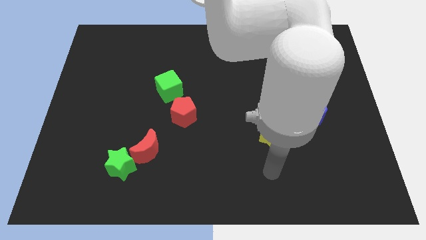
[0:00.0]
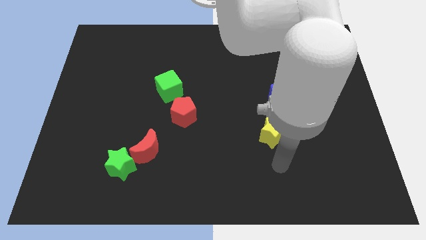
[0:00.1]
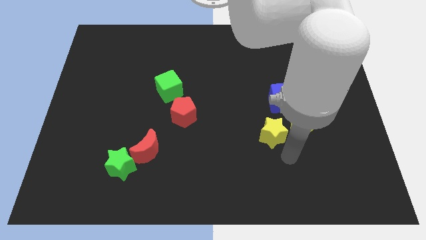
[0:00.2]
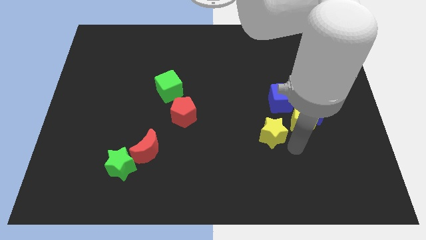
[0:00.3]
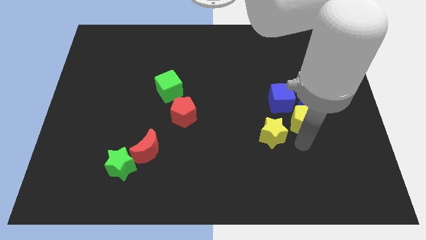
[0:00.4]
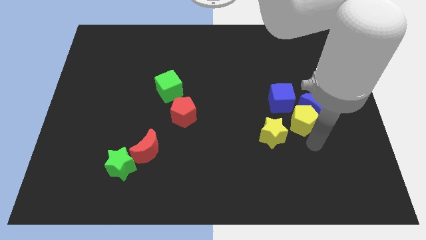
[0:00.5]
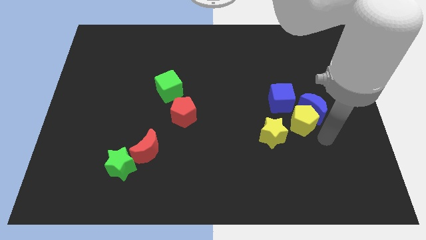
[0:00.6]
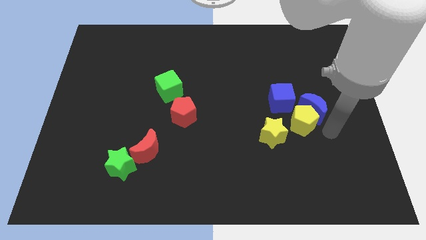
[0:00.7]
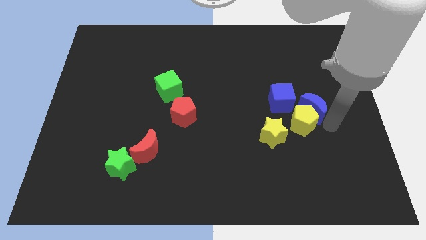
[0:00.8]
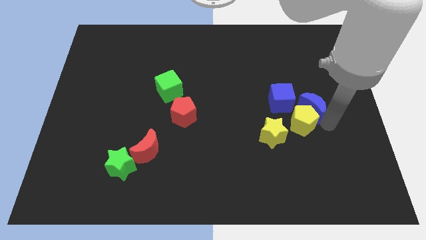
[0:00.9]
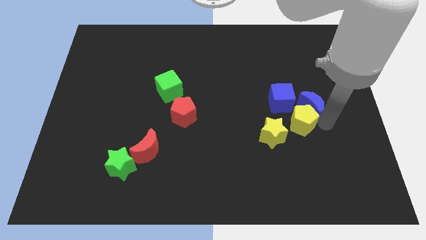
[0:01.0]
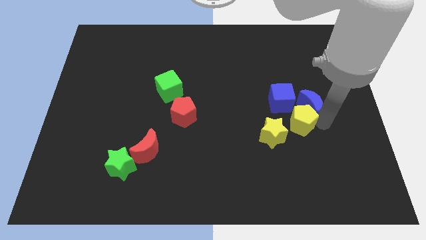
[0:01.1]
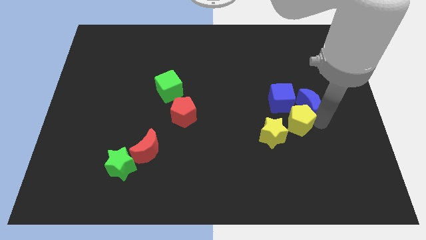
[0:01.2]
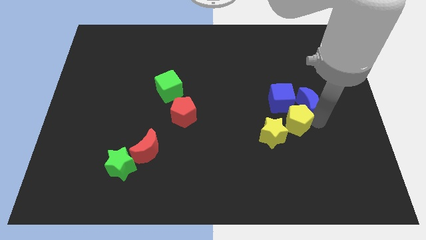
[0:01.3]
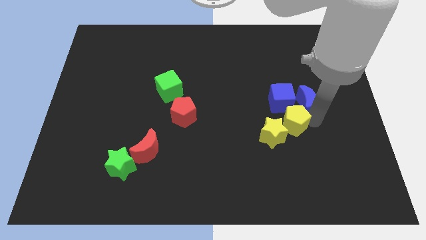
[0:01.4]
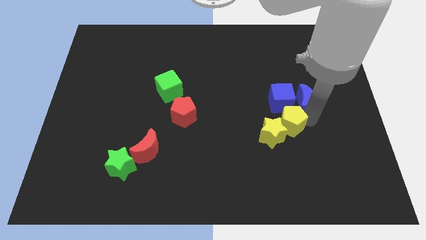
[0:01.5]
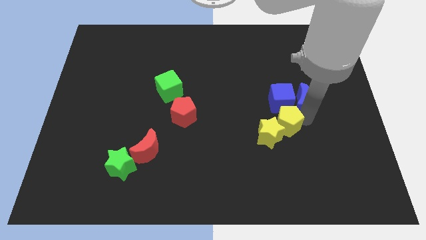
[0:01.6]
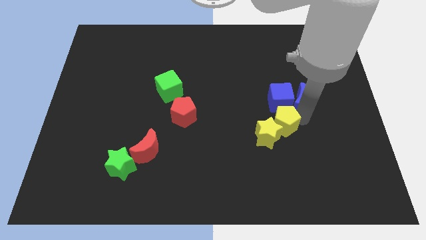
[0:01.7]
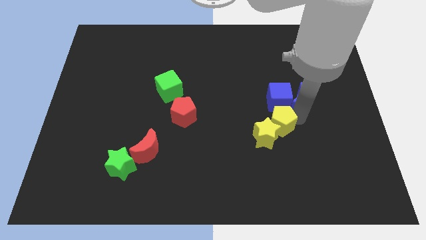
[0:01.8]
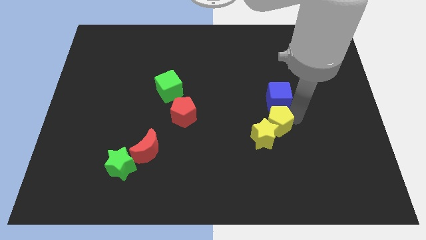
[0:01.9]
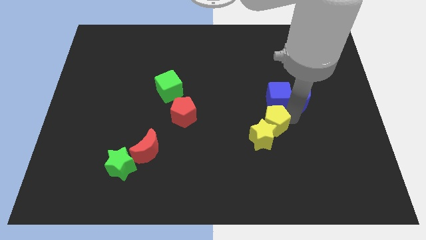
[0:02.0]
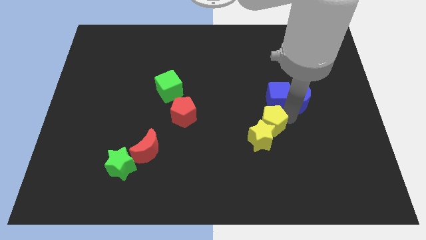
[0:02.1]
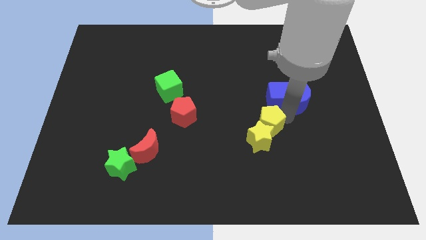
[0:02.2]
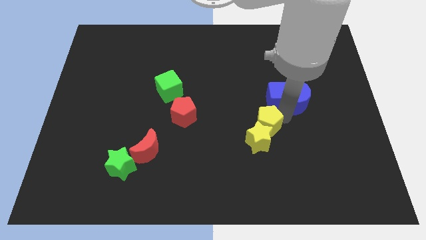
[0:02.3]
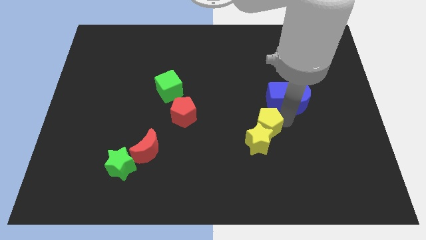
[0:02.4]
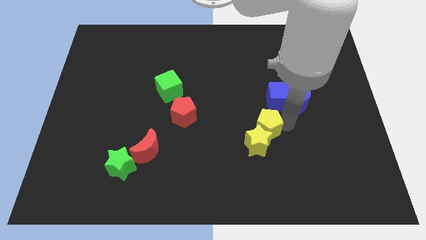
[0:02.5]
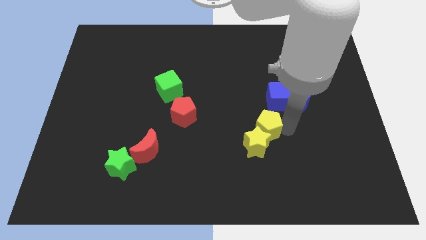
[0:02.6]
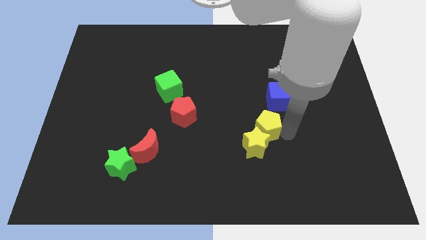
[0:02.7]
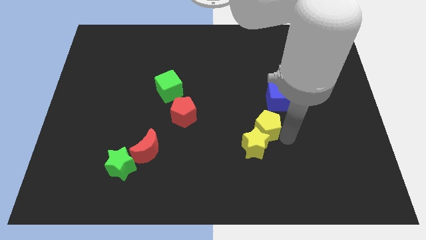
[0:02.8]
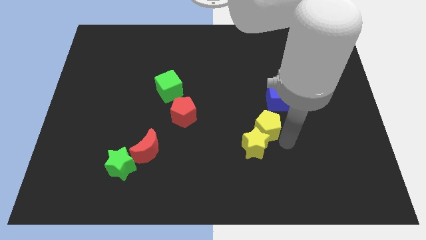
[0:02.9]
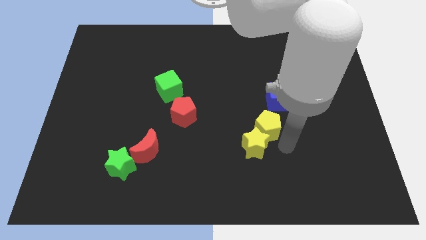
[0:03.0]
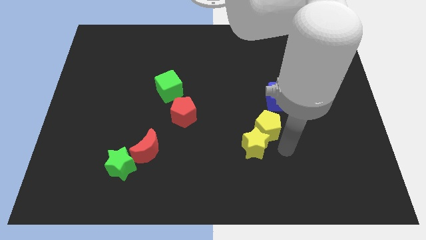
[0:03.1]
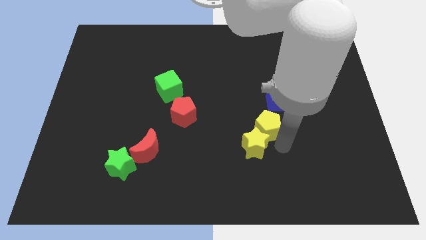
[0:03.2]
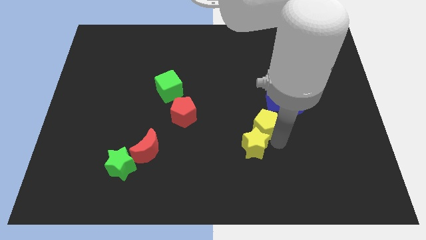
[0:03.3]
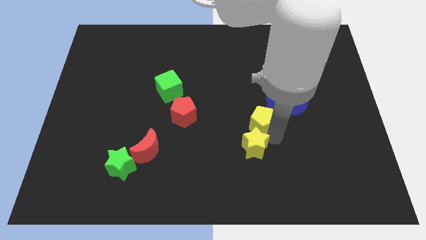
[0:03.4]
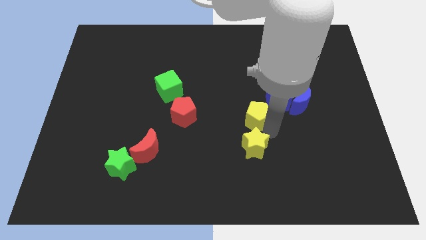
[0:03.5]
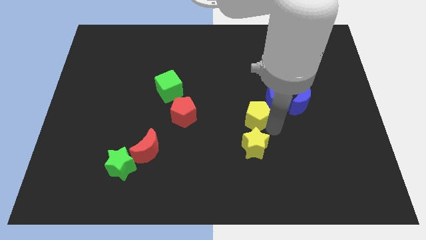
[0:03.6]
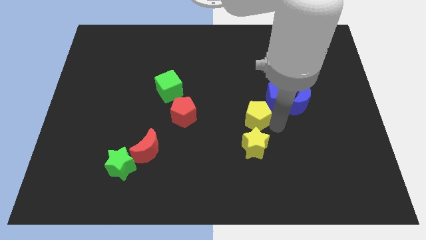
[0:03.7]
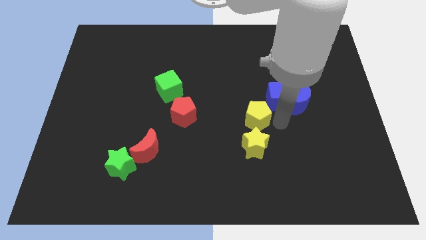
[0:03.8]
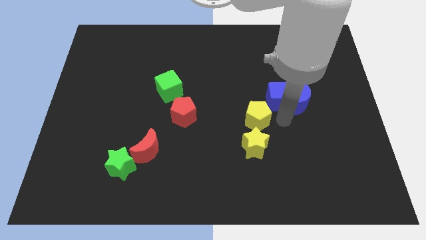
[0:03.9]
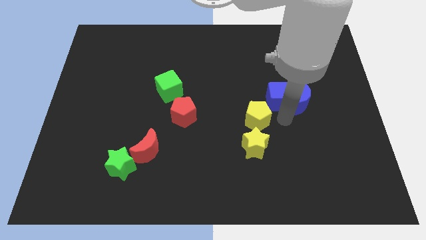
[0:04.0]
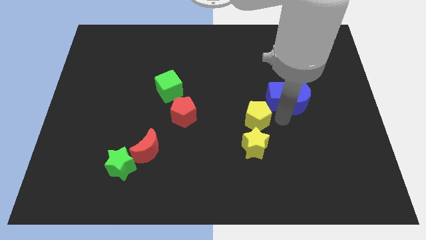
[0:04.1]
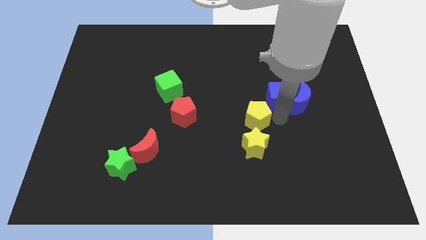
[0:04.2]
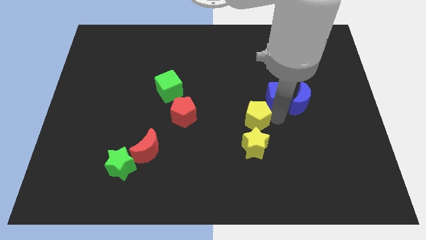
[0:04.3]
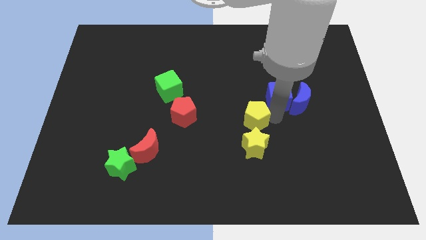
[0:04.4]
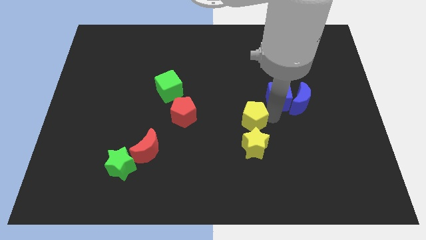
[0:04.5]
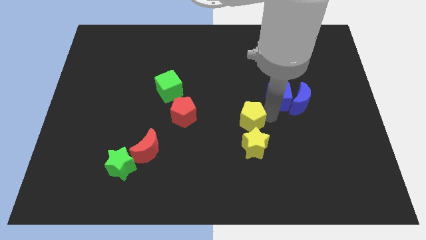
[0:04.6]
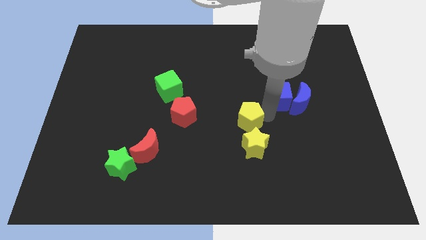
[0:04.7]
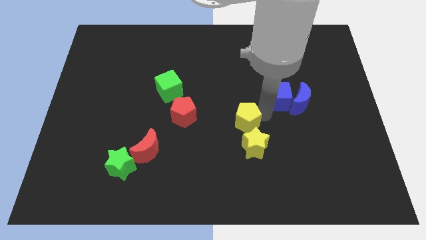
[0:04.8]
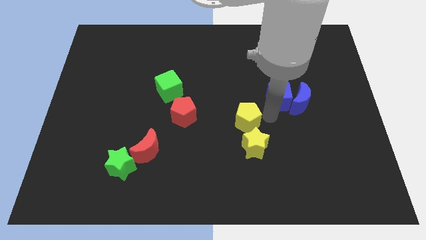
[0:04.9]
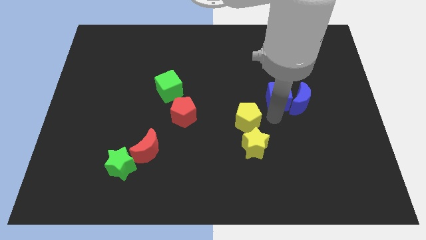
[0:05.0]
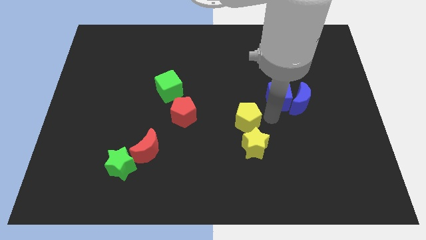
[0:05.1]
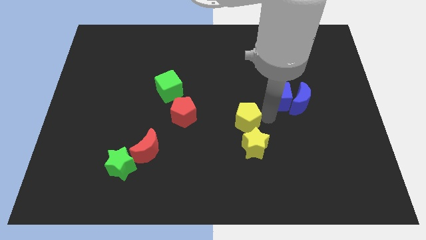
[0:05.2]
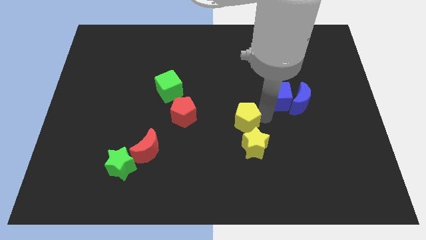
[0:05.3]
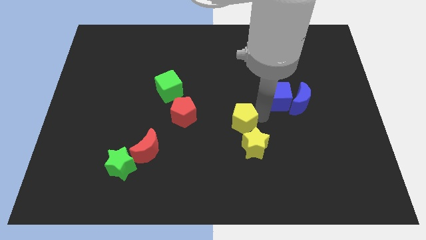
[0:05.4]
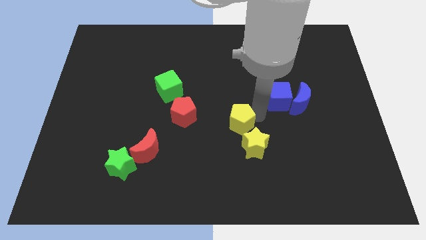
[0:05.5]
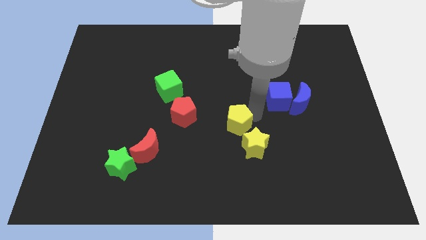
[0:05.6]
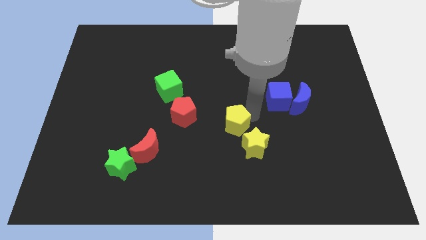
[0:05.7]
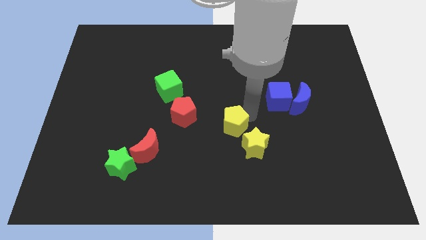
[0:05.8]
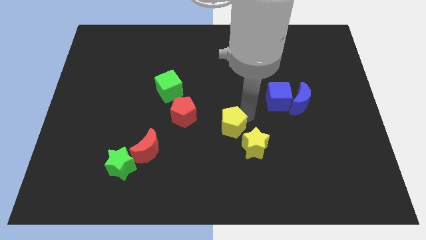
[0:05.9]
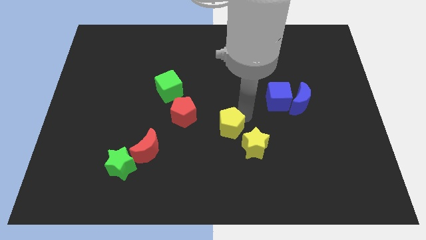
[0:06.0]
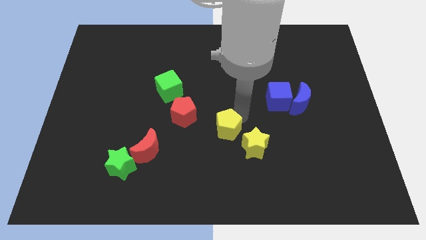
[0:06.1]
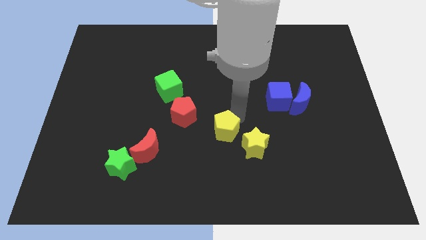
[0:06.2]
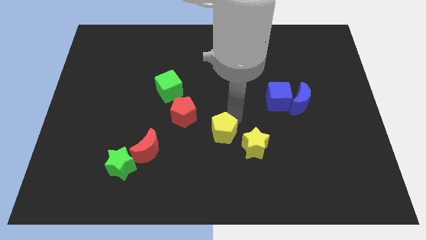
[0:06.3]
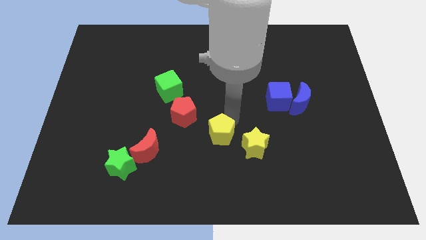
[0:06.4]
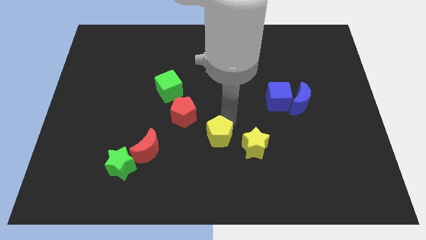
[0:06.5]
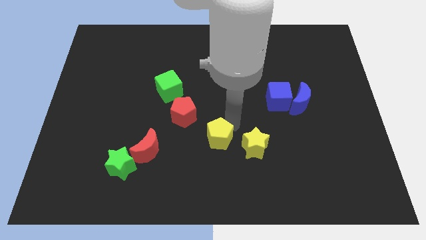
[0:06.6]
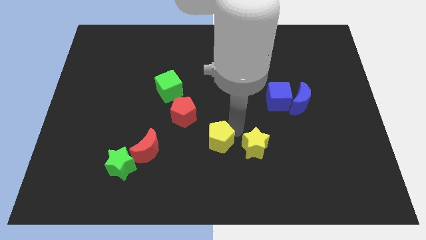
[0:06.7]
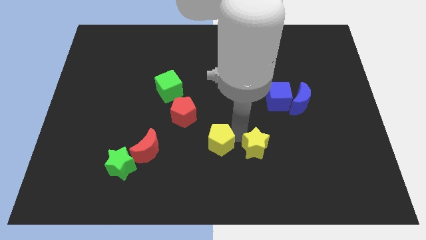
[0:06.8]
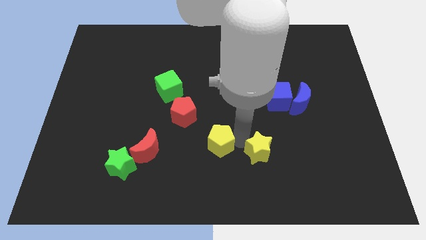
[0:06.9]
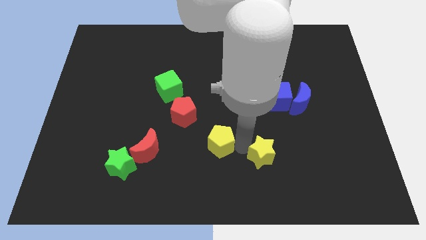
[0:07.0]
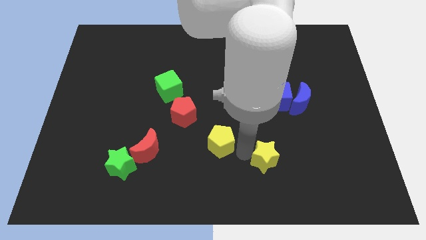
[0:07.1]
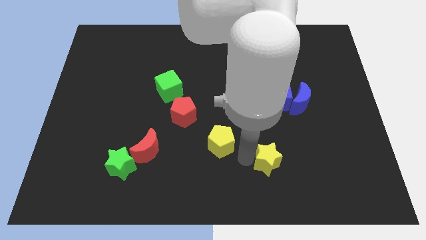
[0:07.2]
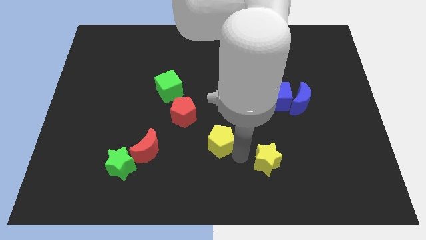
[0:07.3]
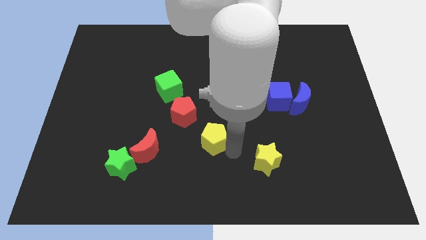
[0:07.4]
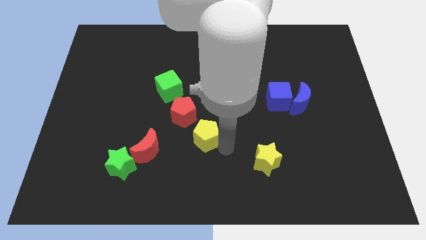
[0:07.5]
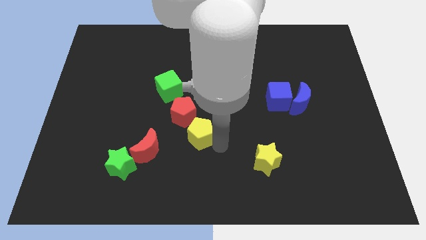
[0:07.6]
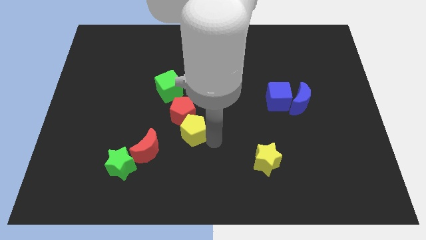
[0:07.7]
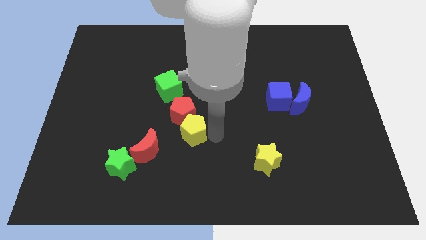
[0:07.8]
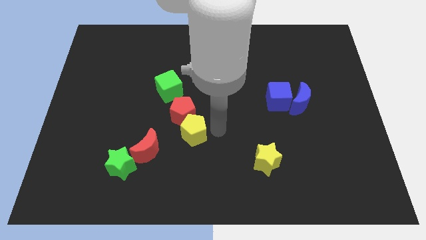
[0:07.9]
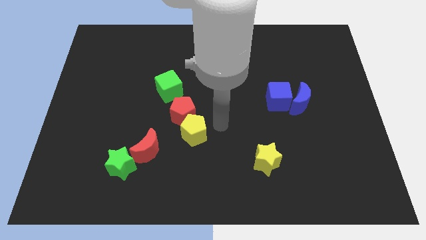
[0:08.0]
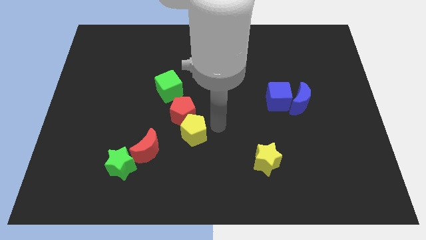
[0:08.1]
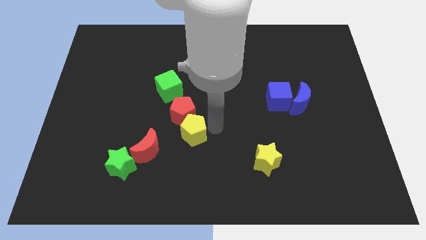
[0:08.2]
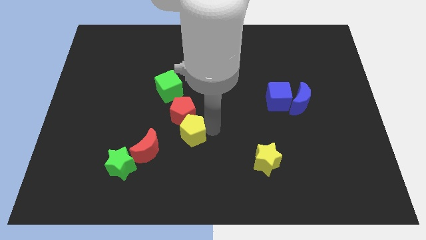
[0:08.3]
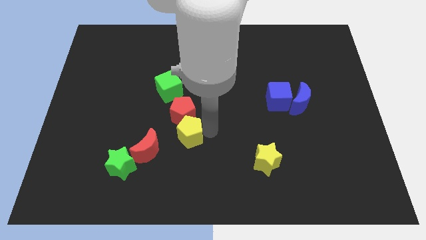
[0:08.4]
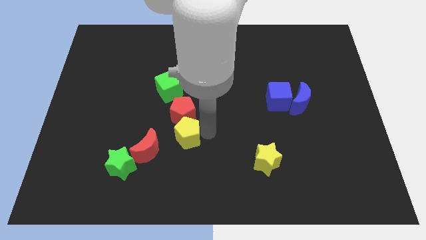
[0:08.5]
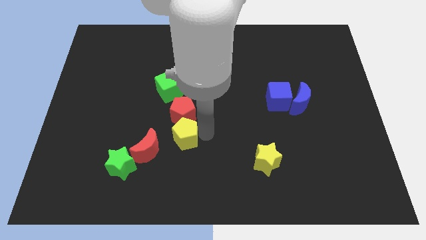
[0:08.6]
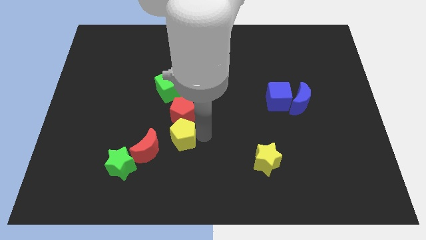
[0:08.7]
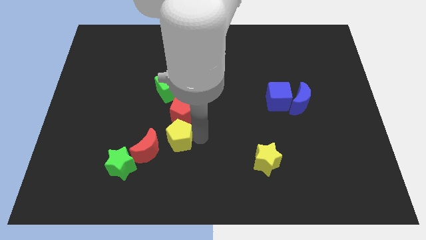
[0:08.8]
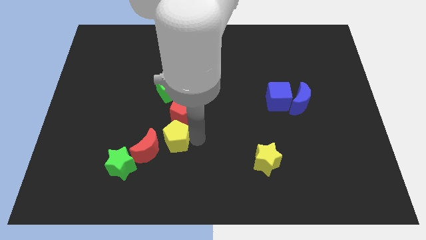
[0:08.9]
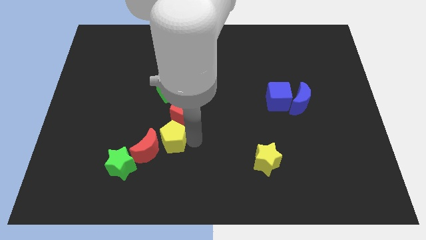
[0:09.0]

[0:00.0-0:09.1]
move the yellow pentagon towards the red moon
